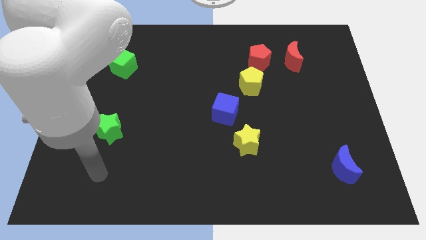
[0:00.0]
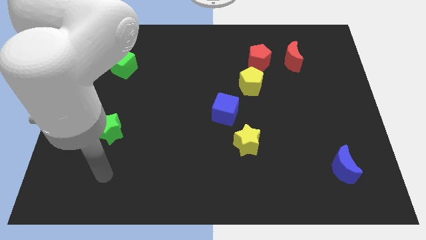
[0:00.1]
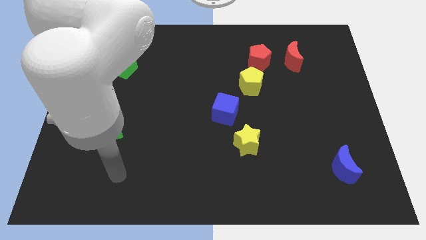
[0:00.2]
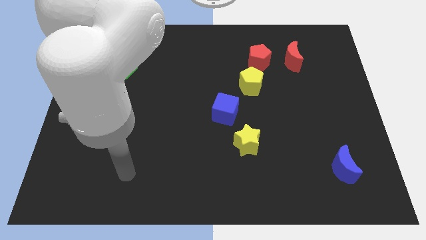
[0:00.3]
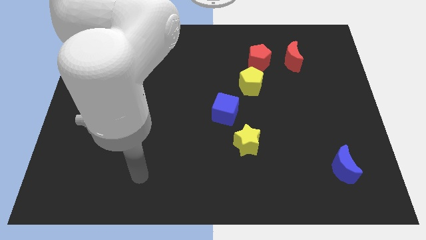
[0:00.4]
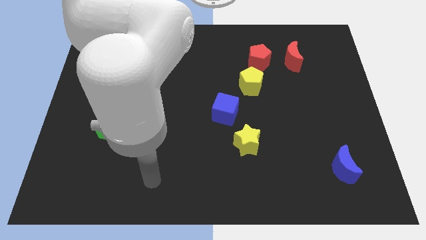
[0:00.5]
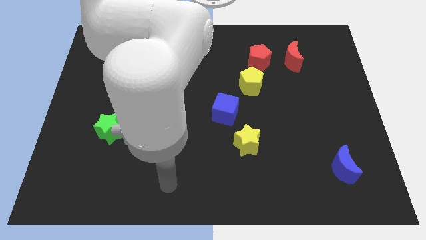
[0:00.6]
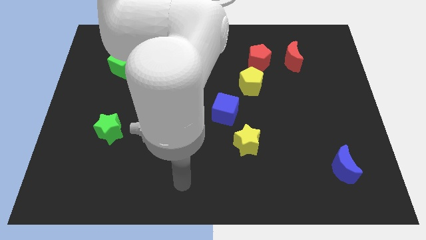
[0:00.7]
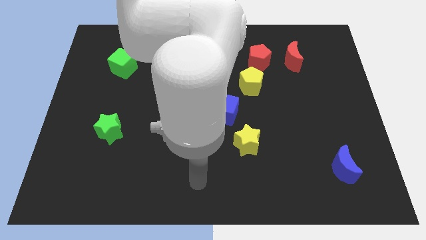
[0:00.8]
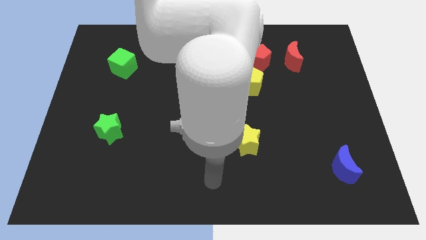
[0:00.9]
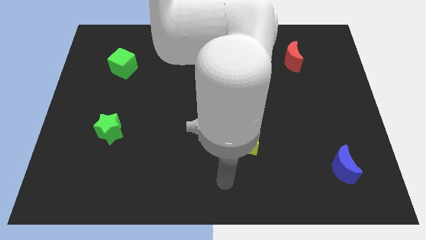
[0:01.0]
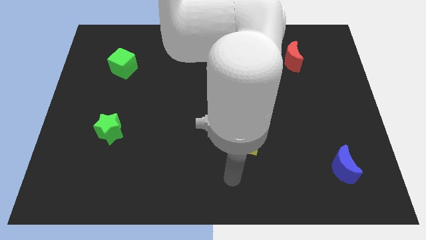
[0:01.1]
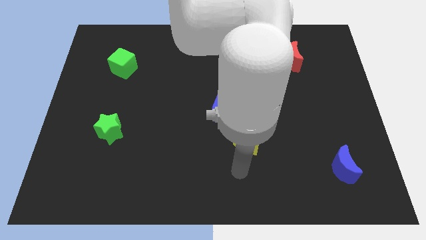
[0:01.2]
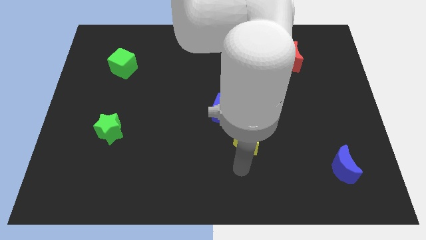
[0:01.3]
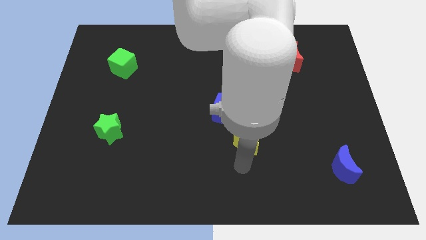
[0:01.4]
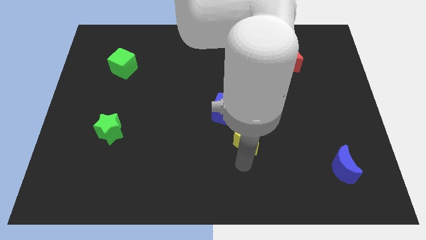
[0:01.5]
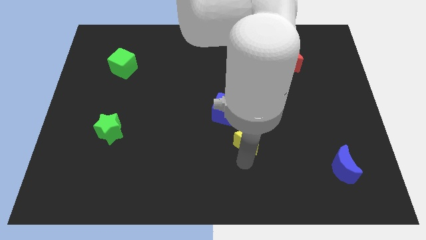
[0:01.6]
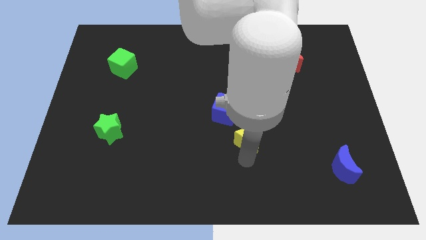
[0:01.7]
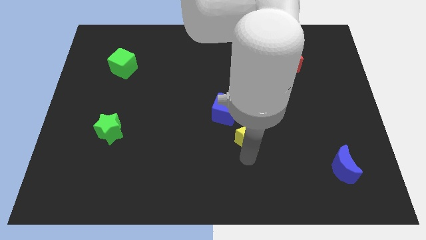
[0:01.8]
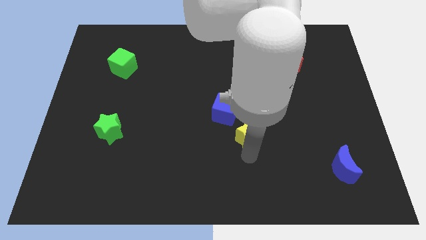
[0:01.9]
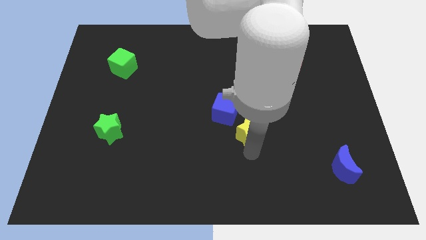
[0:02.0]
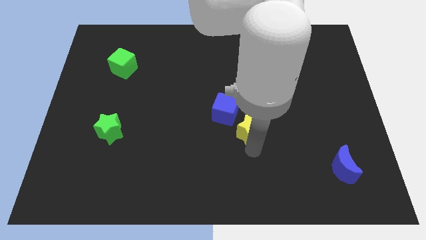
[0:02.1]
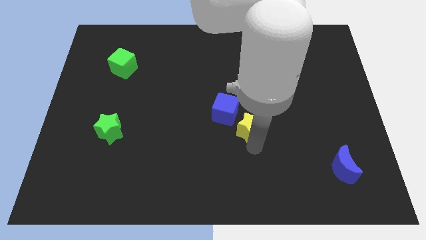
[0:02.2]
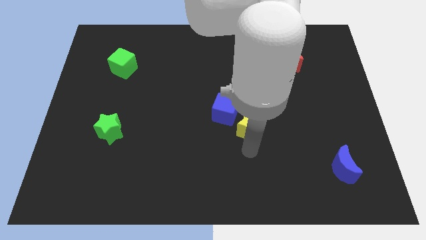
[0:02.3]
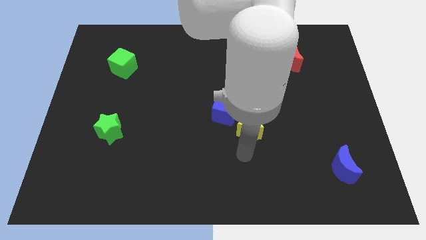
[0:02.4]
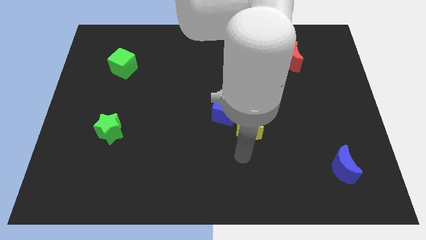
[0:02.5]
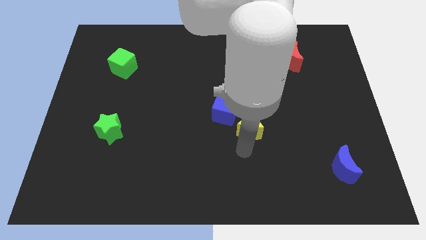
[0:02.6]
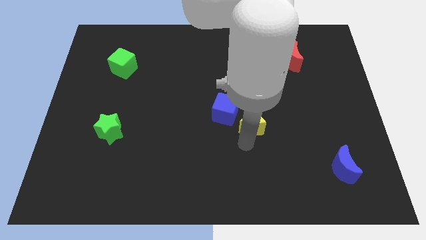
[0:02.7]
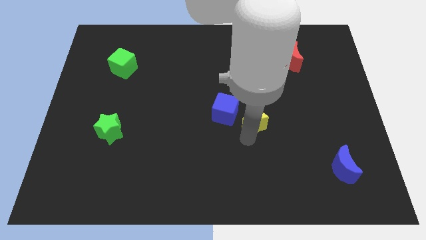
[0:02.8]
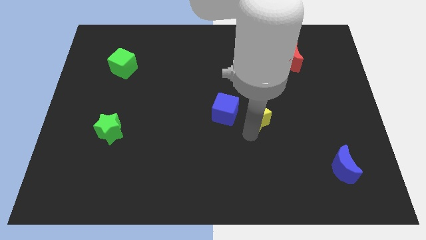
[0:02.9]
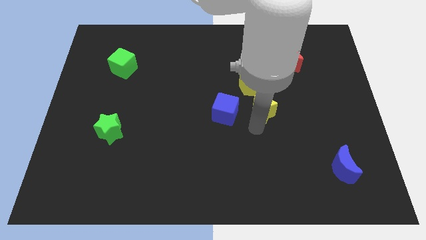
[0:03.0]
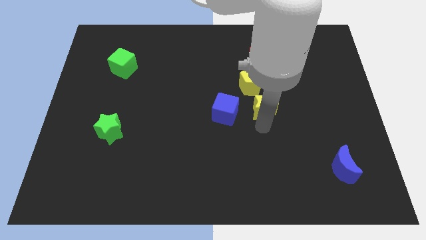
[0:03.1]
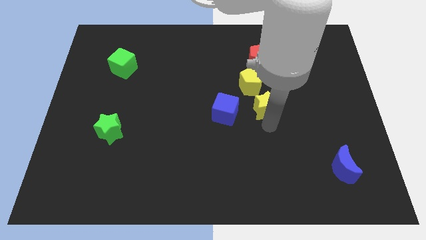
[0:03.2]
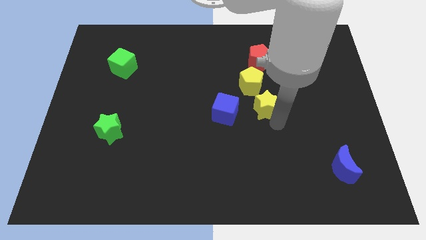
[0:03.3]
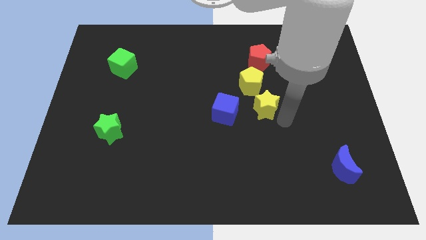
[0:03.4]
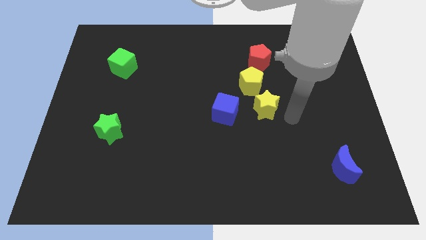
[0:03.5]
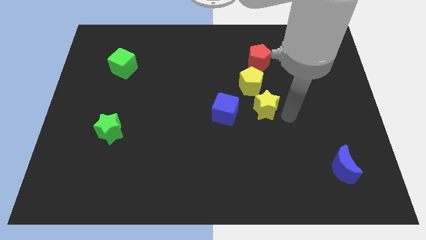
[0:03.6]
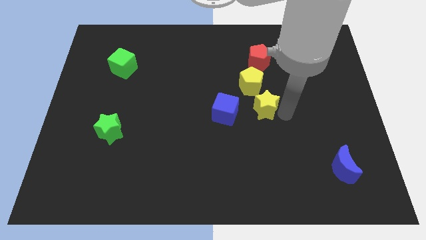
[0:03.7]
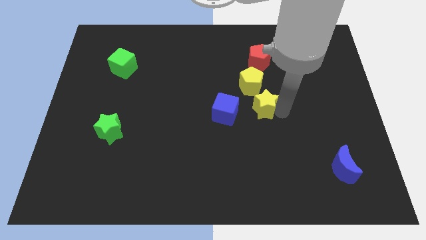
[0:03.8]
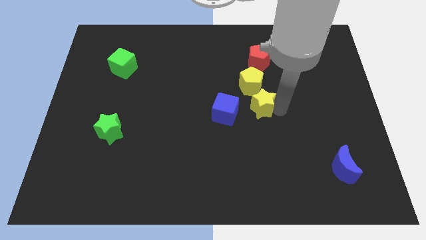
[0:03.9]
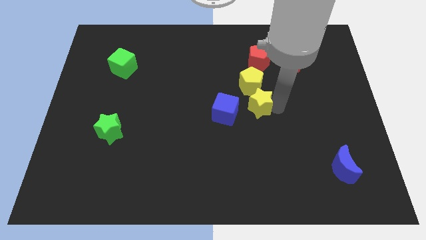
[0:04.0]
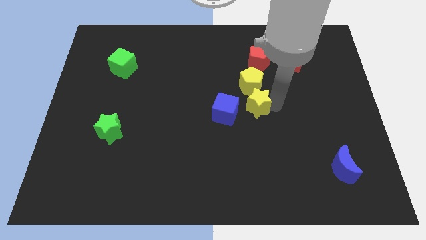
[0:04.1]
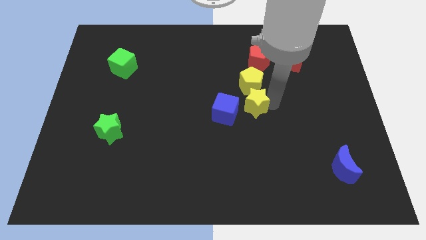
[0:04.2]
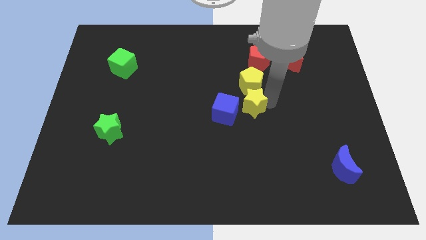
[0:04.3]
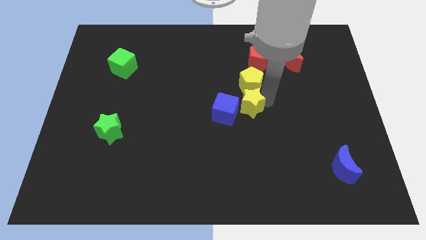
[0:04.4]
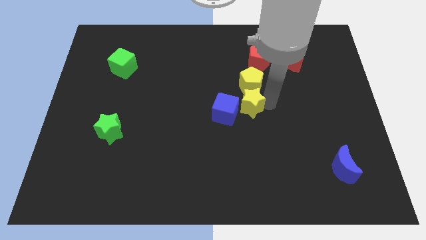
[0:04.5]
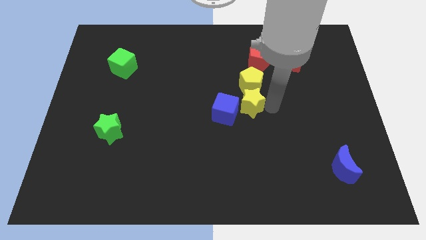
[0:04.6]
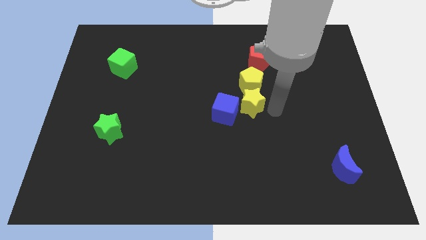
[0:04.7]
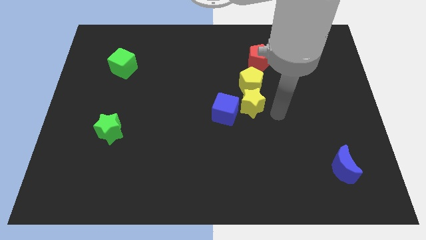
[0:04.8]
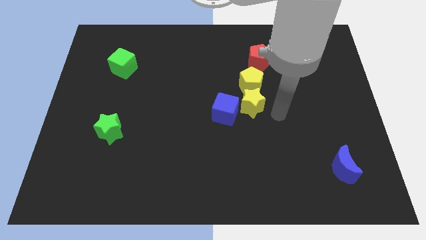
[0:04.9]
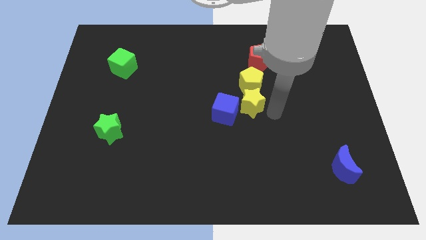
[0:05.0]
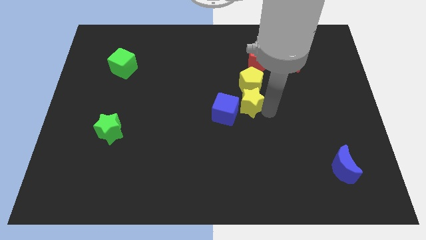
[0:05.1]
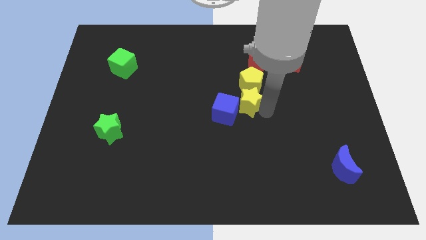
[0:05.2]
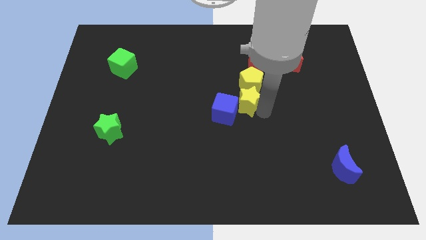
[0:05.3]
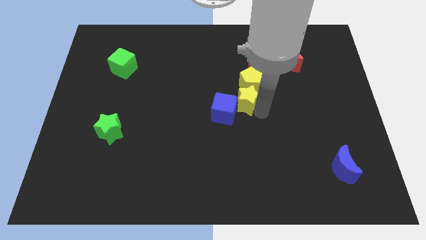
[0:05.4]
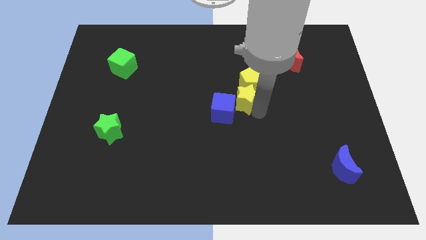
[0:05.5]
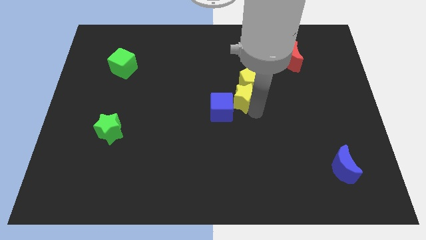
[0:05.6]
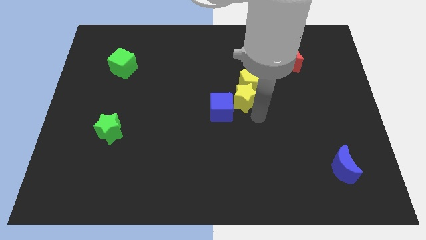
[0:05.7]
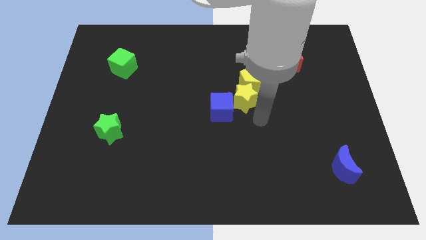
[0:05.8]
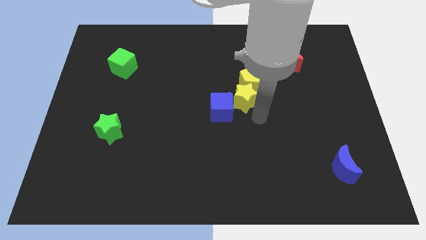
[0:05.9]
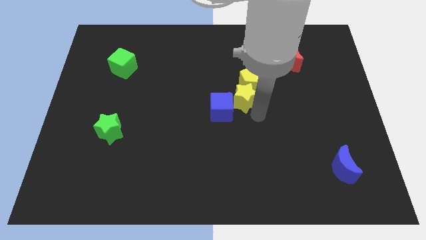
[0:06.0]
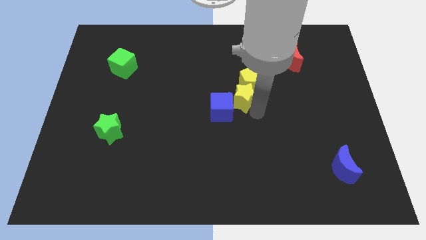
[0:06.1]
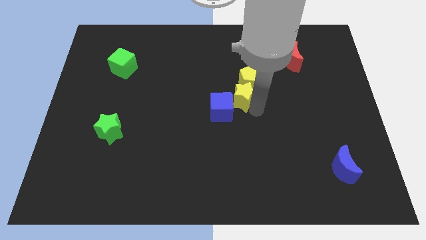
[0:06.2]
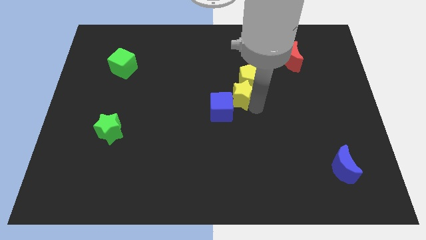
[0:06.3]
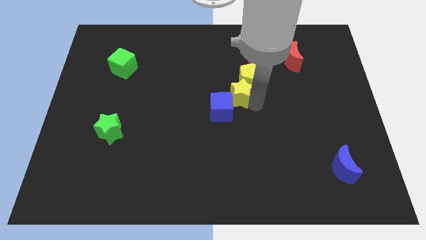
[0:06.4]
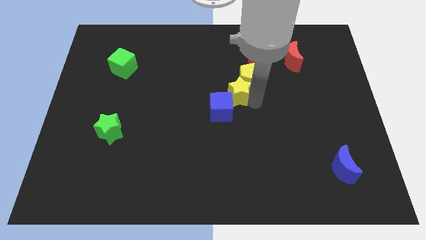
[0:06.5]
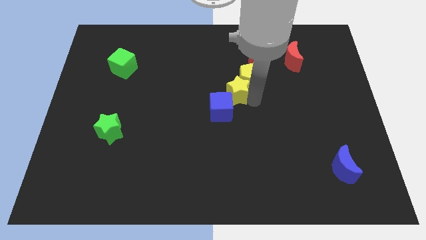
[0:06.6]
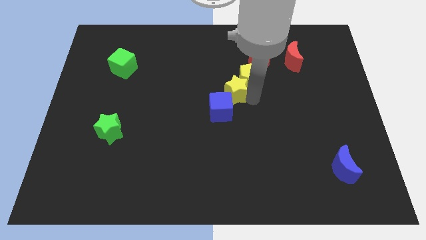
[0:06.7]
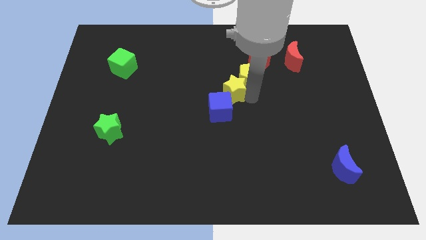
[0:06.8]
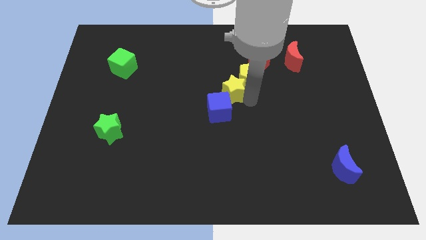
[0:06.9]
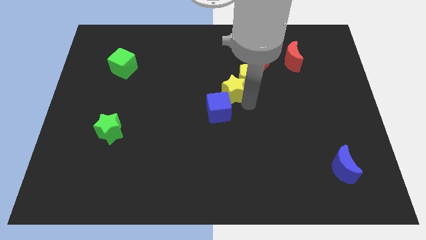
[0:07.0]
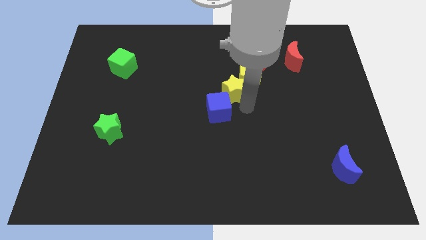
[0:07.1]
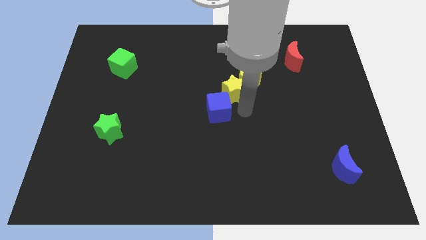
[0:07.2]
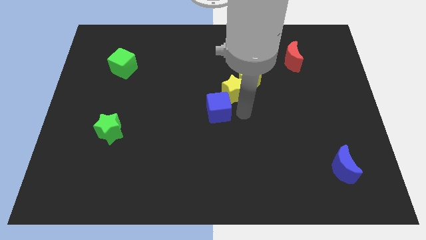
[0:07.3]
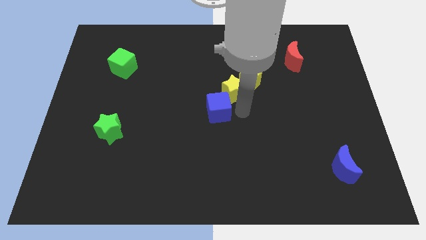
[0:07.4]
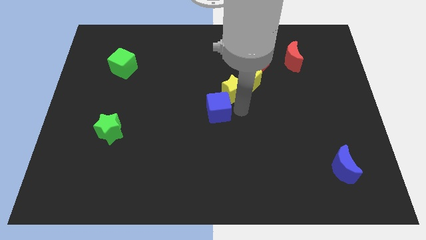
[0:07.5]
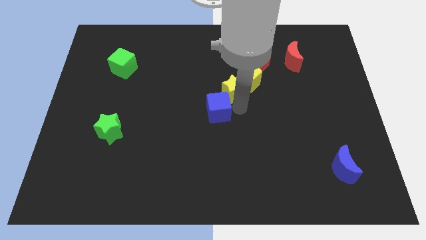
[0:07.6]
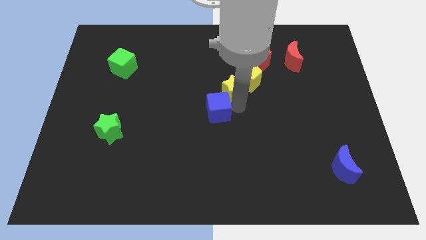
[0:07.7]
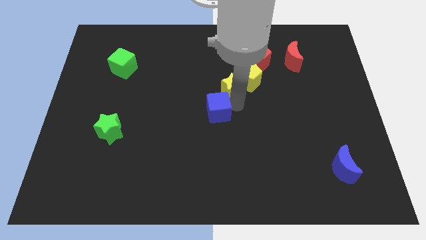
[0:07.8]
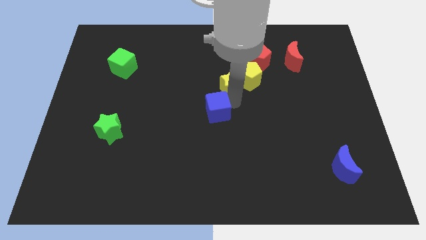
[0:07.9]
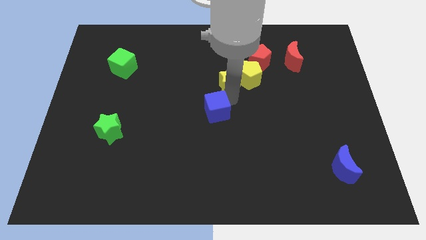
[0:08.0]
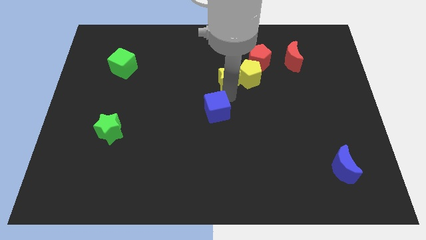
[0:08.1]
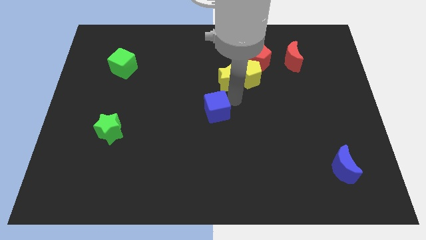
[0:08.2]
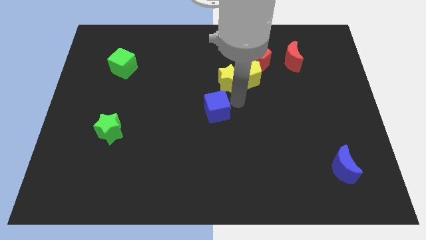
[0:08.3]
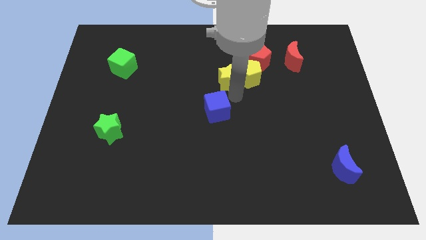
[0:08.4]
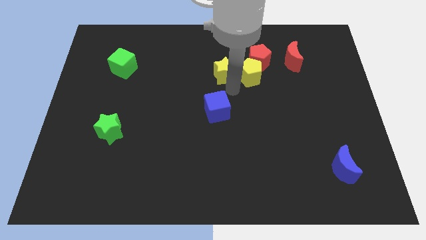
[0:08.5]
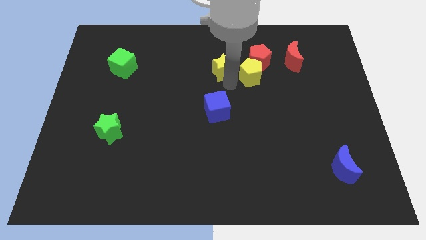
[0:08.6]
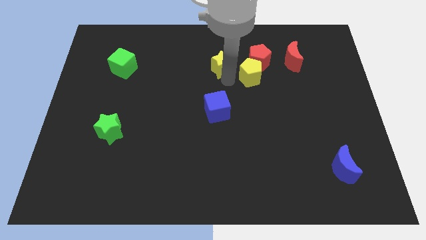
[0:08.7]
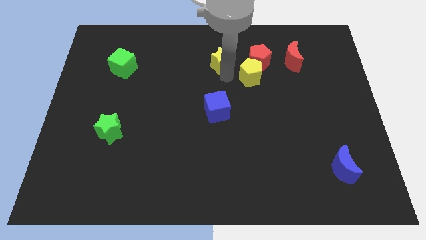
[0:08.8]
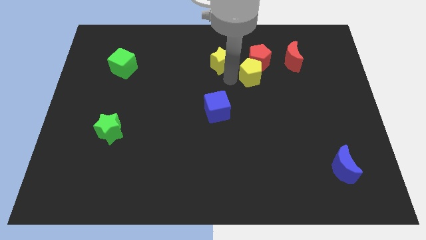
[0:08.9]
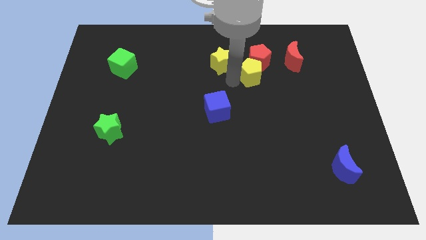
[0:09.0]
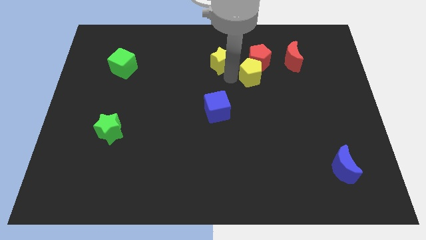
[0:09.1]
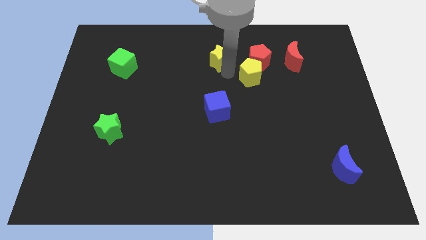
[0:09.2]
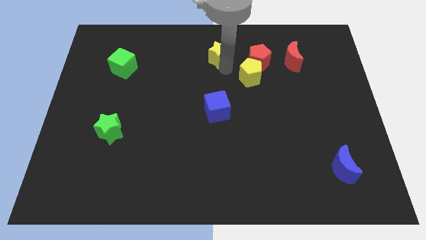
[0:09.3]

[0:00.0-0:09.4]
put the yellow star to the top
